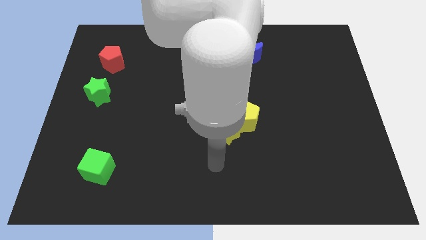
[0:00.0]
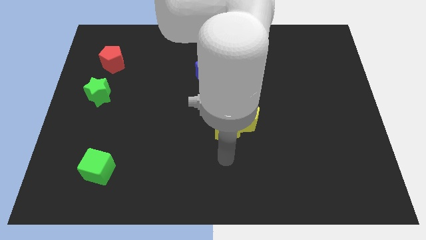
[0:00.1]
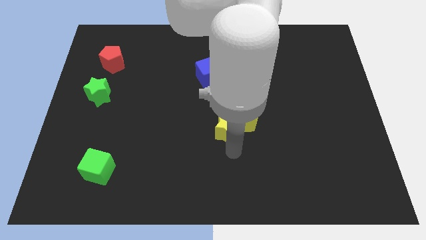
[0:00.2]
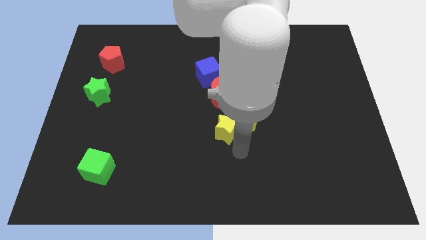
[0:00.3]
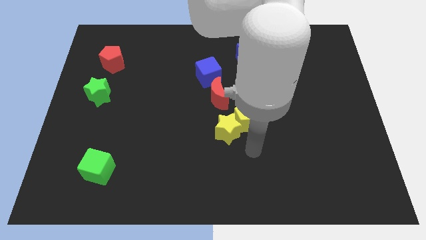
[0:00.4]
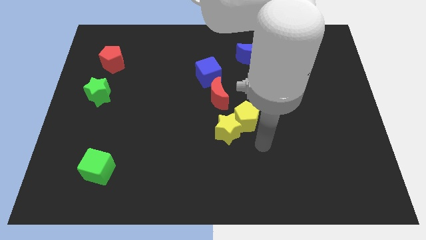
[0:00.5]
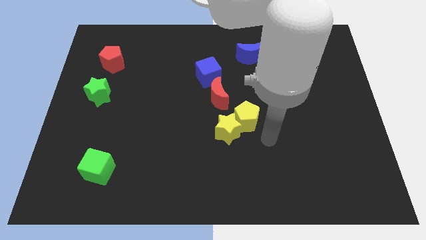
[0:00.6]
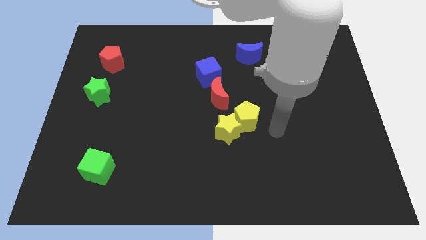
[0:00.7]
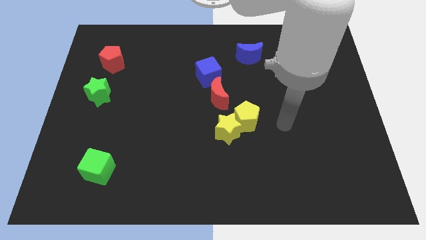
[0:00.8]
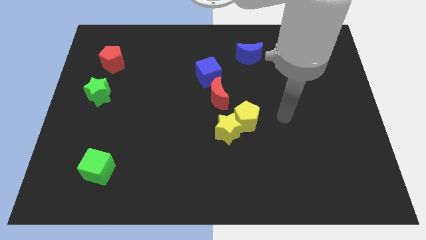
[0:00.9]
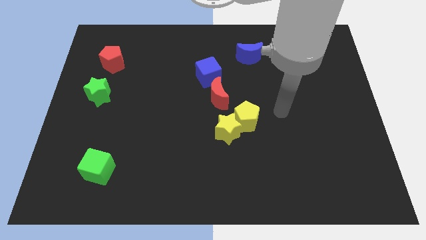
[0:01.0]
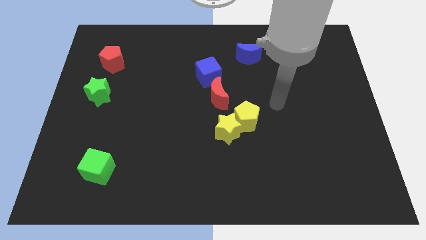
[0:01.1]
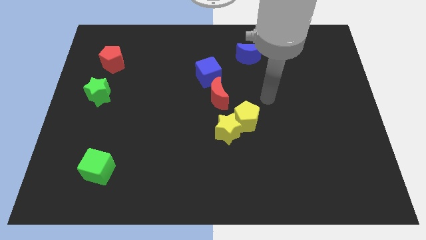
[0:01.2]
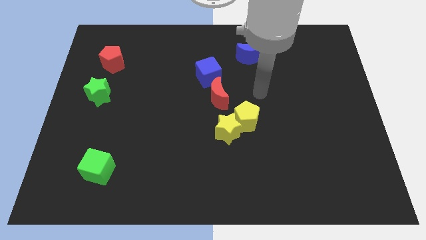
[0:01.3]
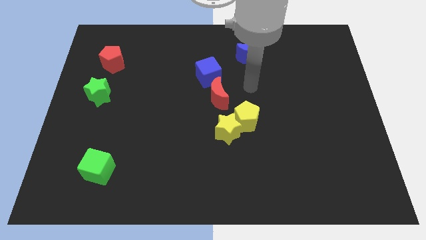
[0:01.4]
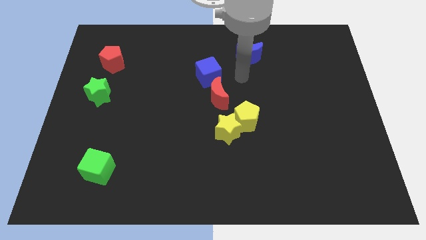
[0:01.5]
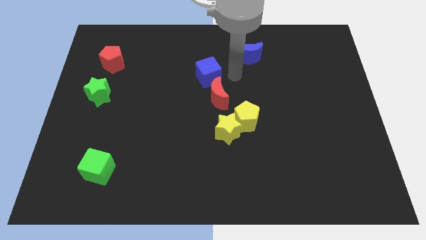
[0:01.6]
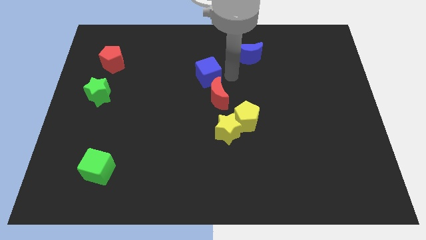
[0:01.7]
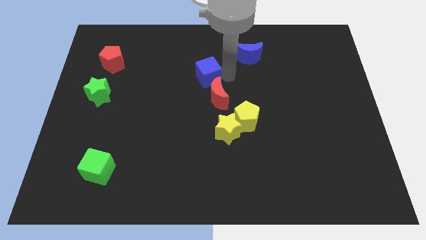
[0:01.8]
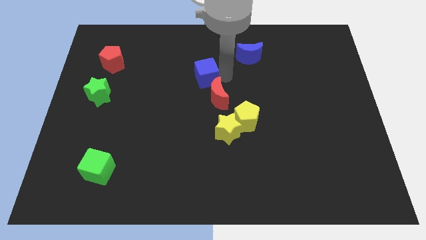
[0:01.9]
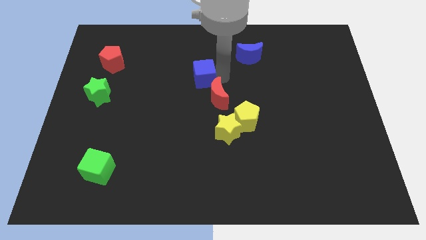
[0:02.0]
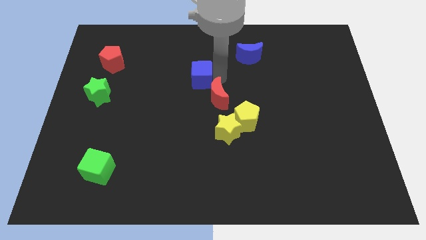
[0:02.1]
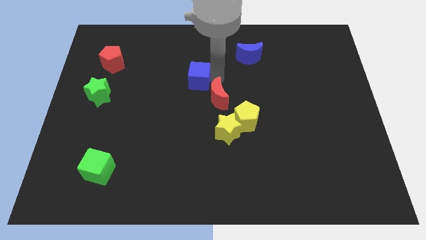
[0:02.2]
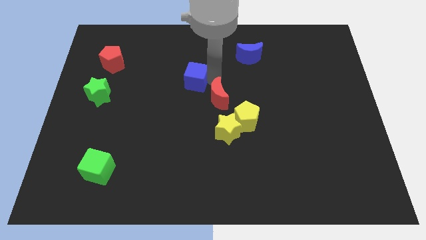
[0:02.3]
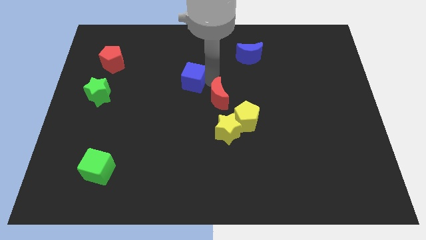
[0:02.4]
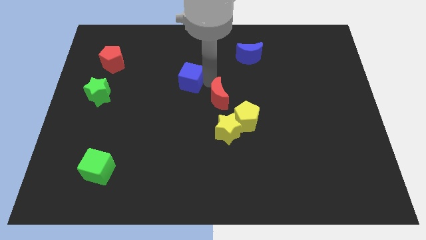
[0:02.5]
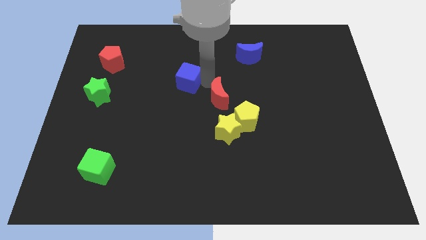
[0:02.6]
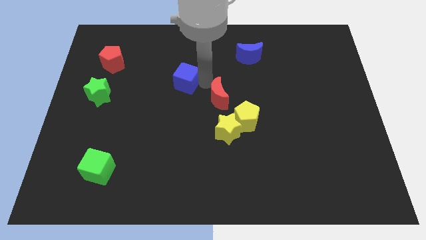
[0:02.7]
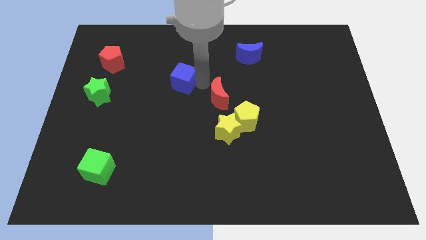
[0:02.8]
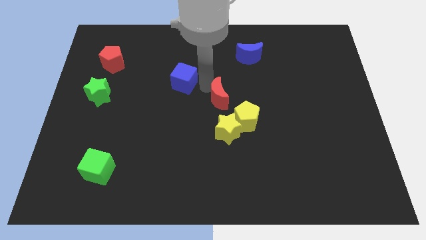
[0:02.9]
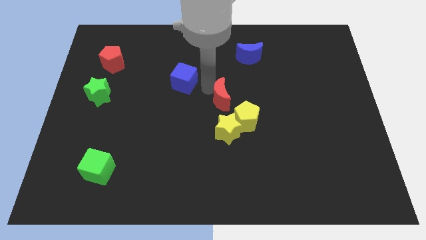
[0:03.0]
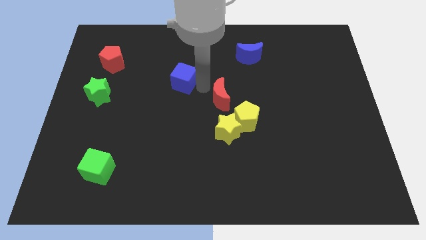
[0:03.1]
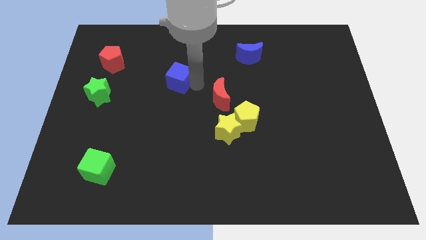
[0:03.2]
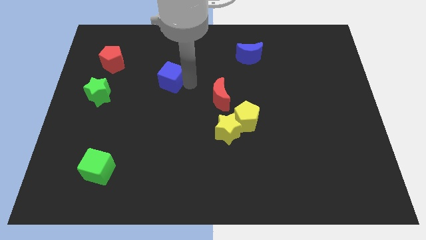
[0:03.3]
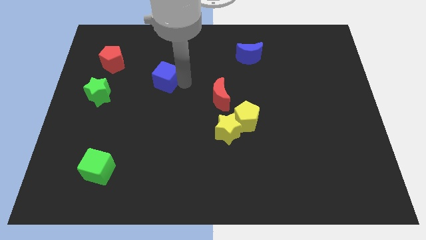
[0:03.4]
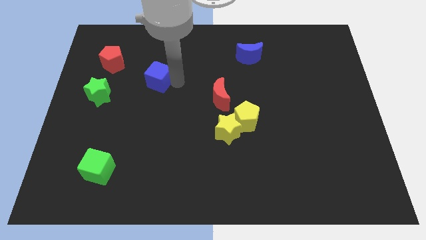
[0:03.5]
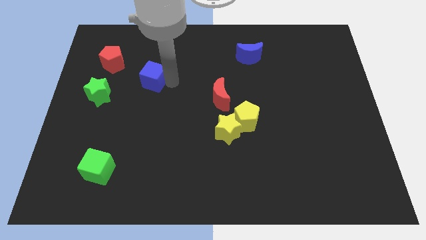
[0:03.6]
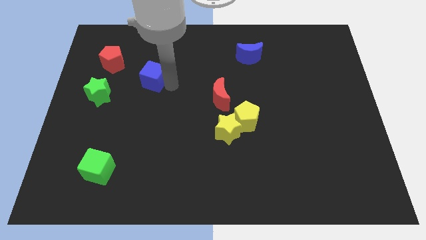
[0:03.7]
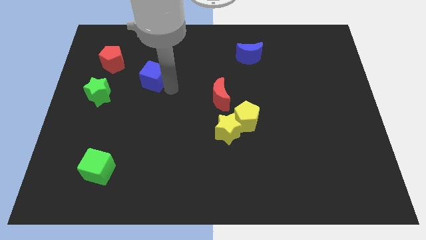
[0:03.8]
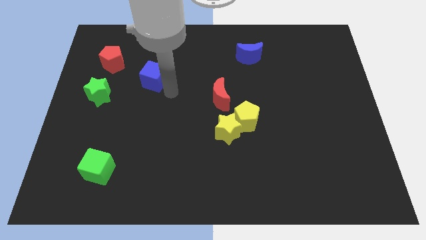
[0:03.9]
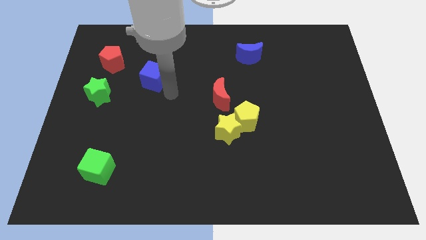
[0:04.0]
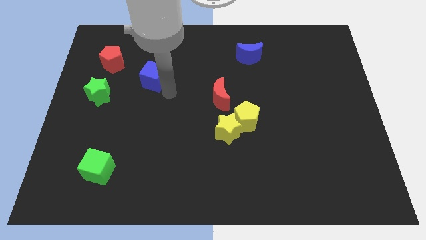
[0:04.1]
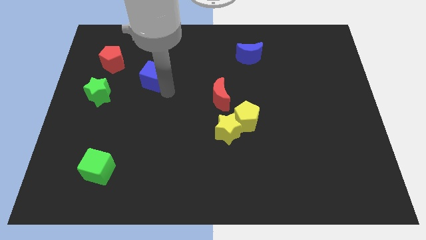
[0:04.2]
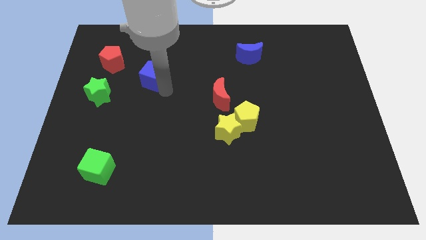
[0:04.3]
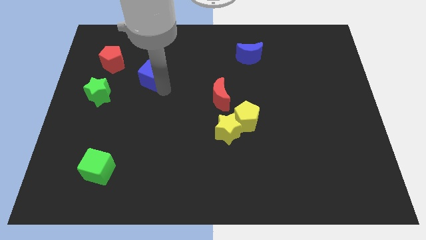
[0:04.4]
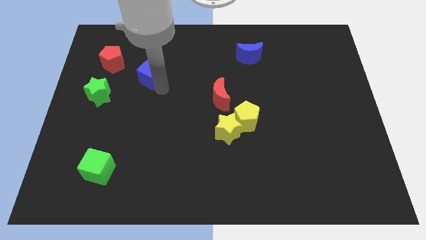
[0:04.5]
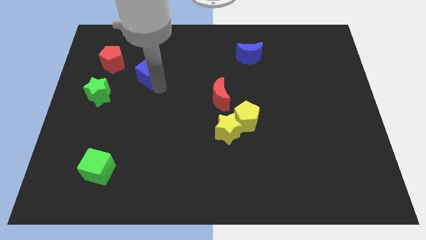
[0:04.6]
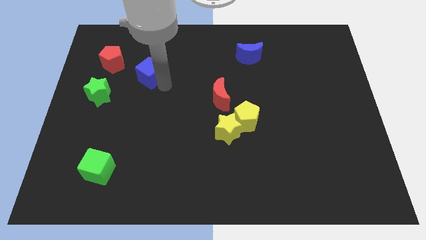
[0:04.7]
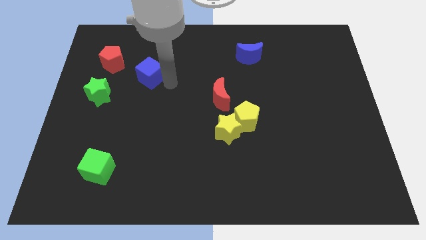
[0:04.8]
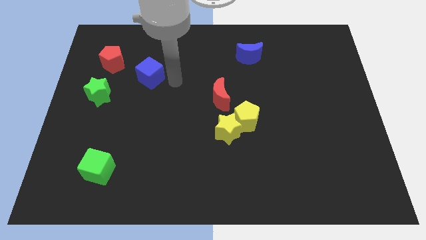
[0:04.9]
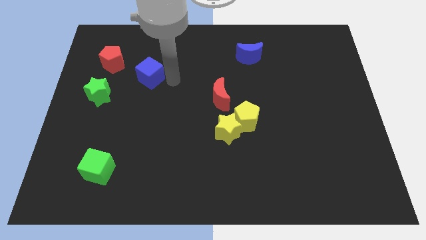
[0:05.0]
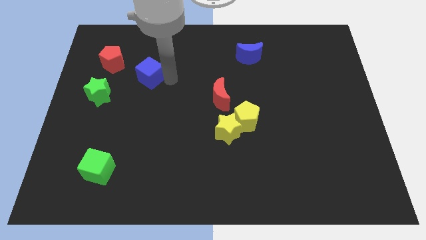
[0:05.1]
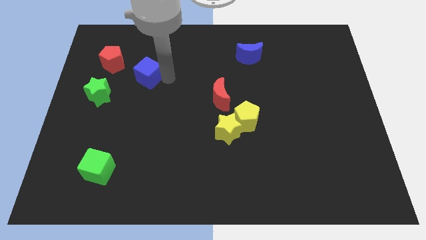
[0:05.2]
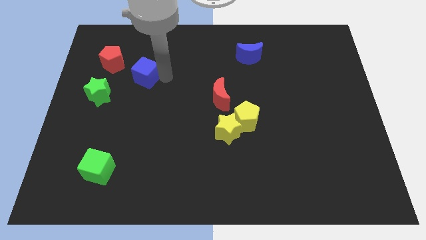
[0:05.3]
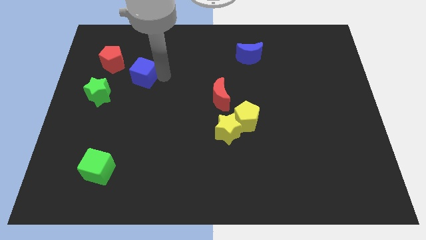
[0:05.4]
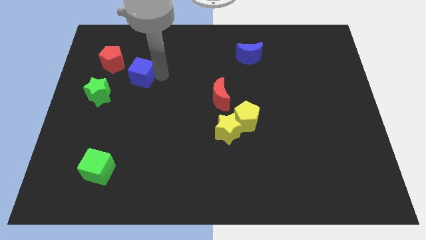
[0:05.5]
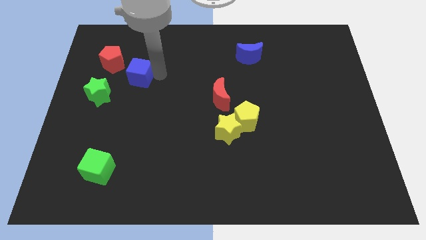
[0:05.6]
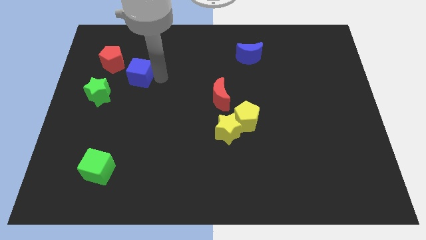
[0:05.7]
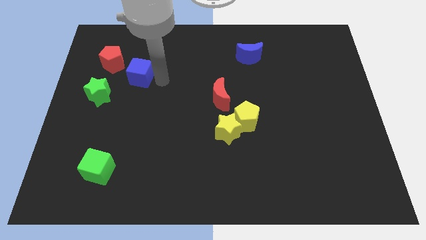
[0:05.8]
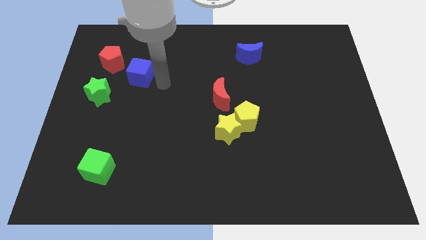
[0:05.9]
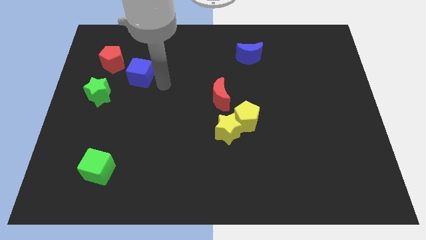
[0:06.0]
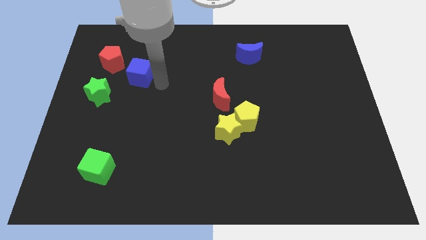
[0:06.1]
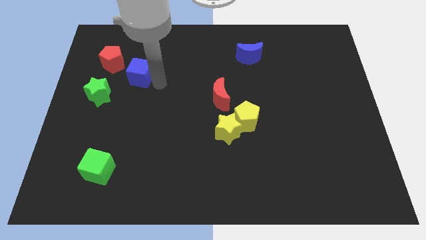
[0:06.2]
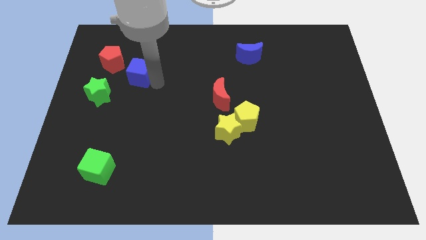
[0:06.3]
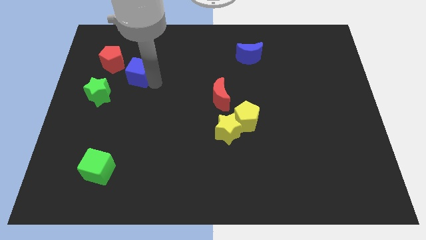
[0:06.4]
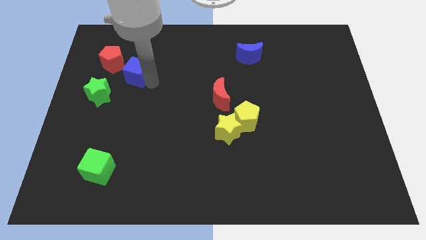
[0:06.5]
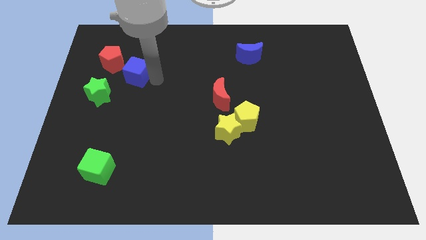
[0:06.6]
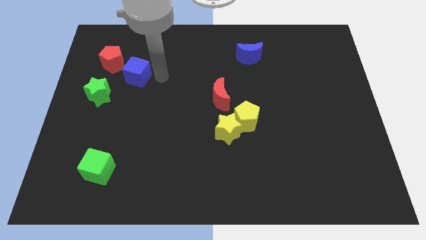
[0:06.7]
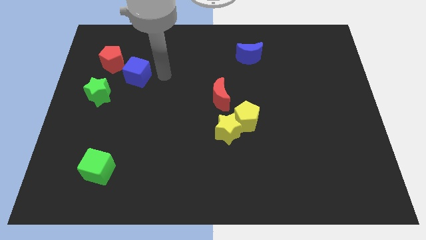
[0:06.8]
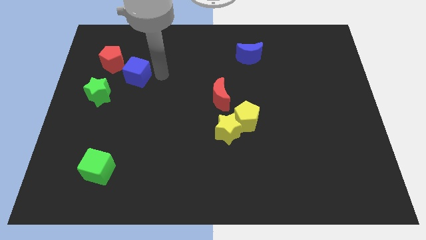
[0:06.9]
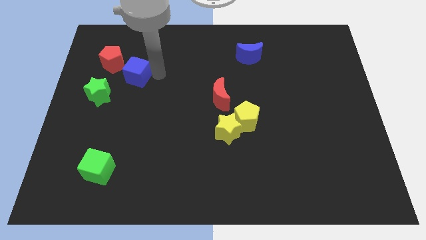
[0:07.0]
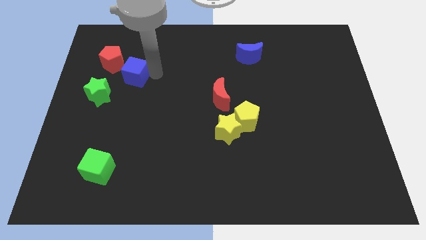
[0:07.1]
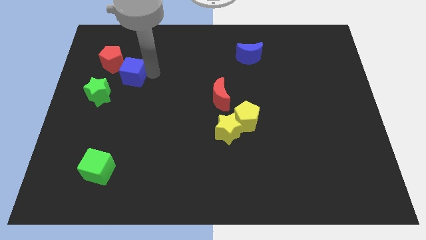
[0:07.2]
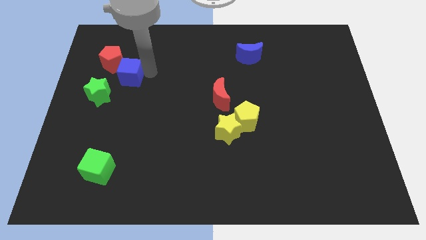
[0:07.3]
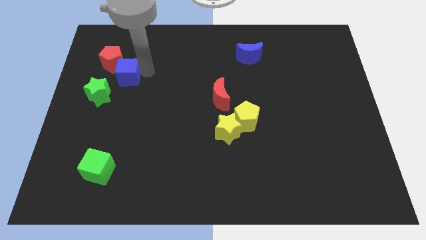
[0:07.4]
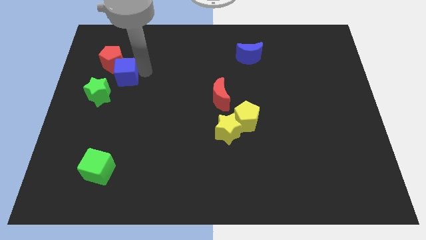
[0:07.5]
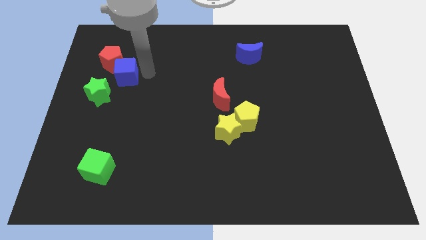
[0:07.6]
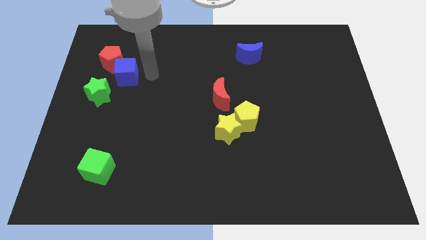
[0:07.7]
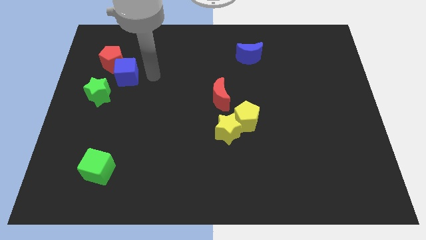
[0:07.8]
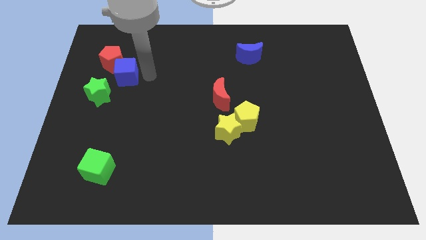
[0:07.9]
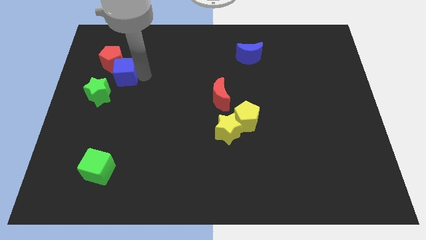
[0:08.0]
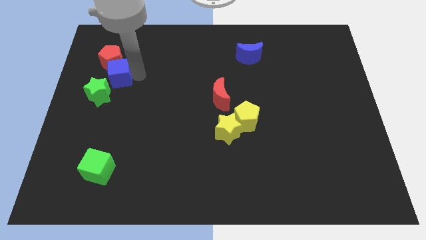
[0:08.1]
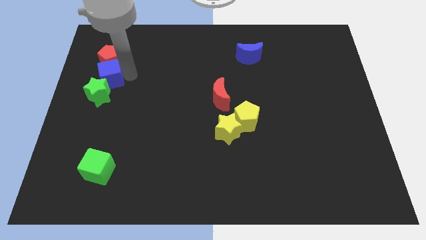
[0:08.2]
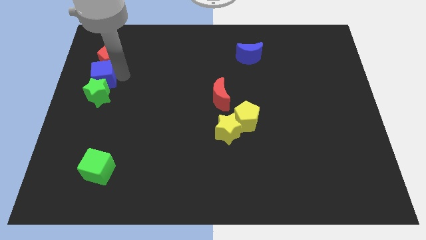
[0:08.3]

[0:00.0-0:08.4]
move the blue cube to the left side
